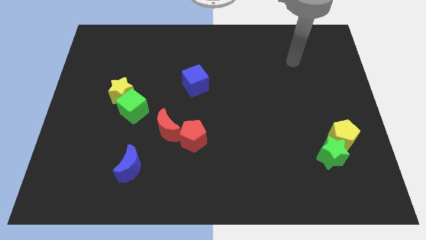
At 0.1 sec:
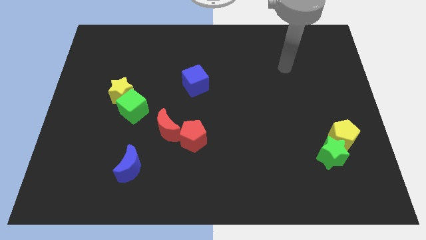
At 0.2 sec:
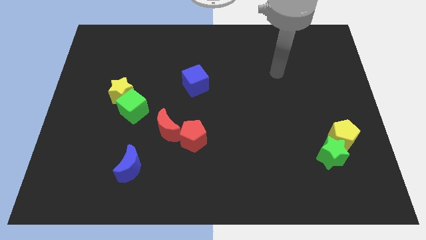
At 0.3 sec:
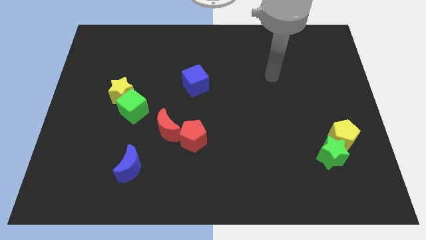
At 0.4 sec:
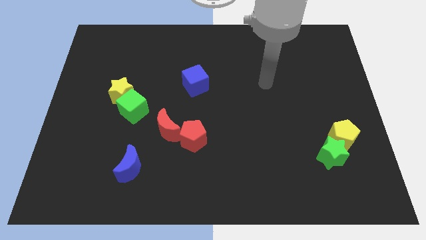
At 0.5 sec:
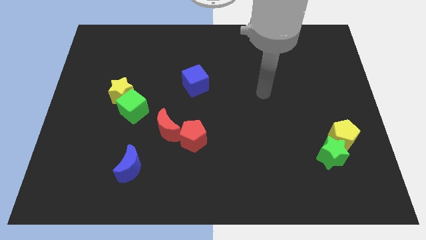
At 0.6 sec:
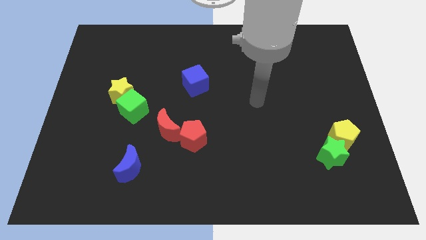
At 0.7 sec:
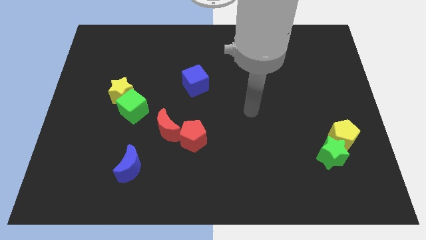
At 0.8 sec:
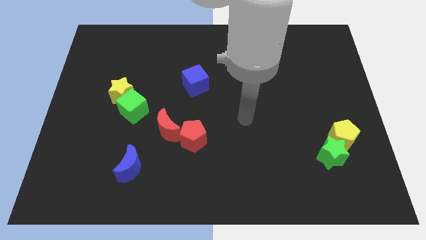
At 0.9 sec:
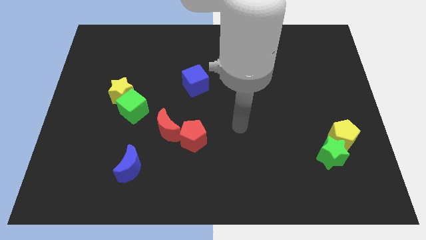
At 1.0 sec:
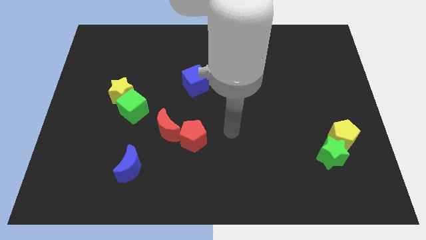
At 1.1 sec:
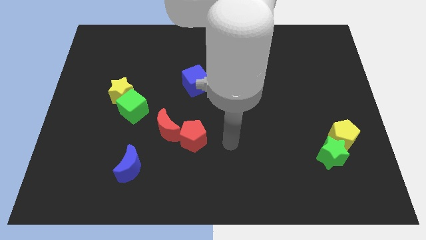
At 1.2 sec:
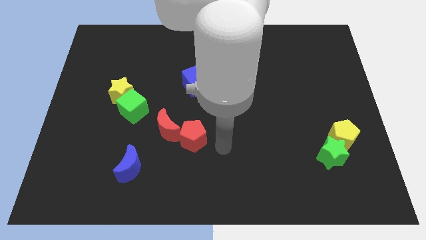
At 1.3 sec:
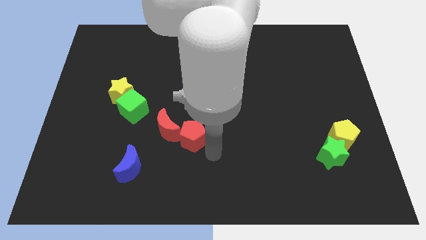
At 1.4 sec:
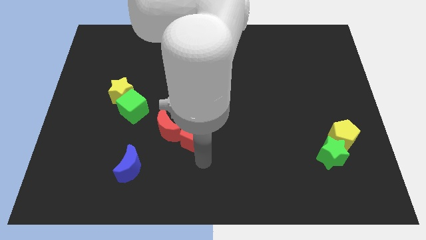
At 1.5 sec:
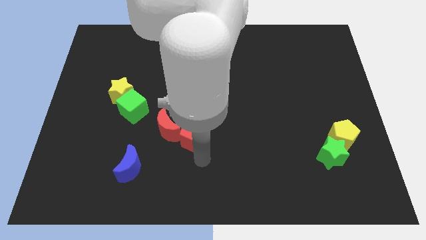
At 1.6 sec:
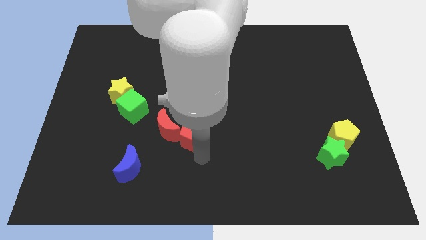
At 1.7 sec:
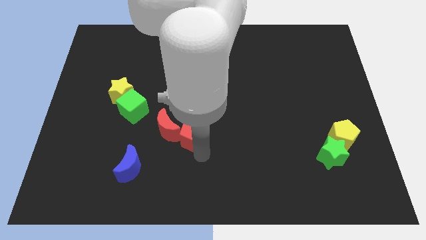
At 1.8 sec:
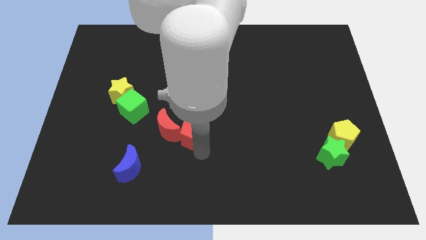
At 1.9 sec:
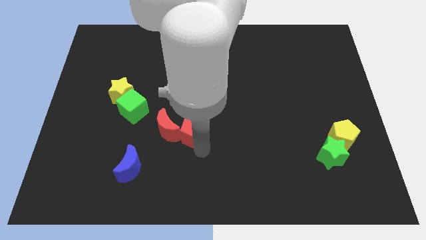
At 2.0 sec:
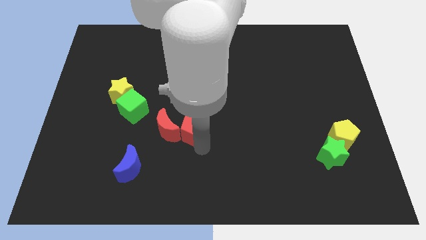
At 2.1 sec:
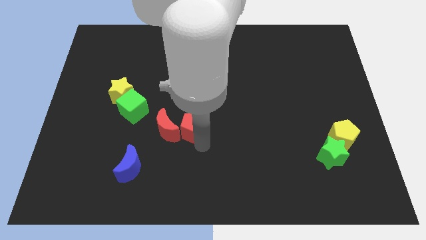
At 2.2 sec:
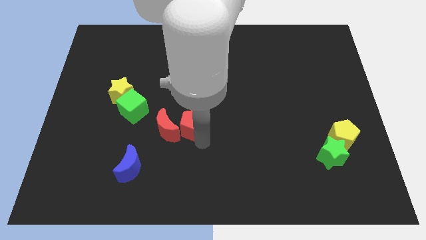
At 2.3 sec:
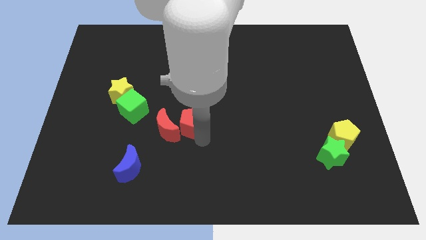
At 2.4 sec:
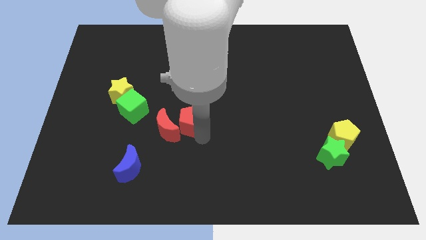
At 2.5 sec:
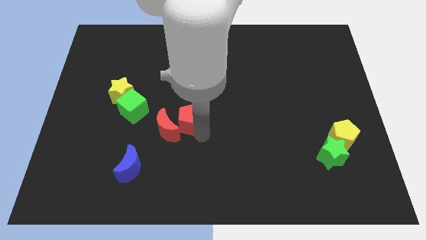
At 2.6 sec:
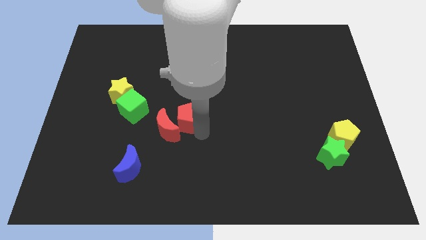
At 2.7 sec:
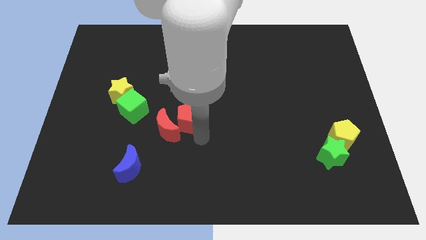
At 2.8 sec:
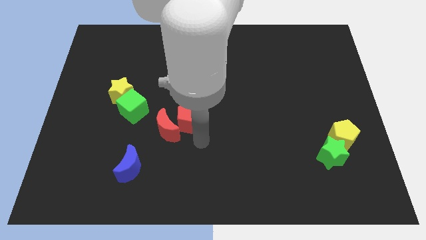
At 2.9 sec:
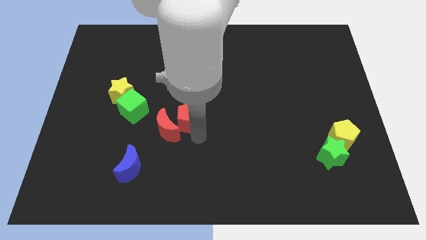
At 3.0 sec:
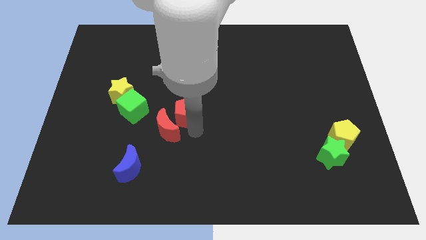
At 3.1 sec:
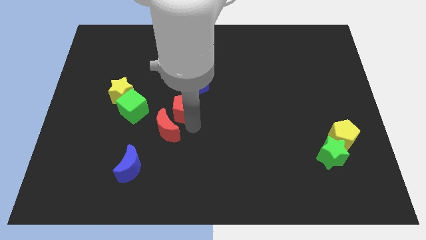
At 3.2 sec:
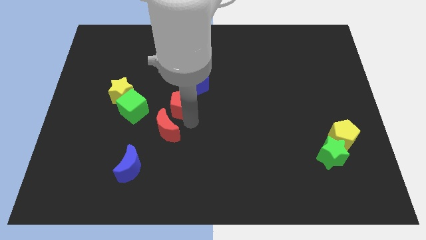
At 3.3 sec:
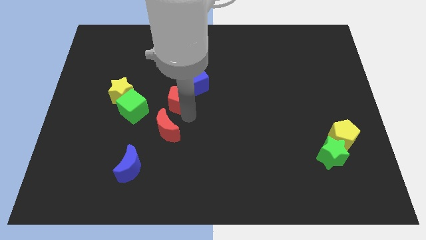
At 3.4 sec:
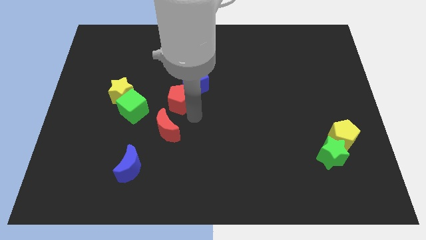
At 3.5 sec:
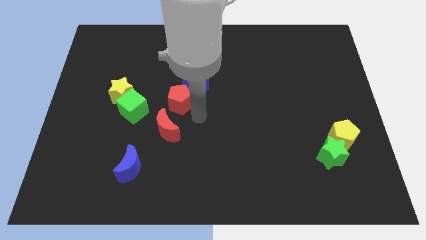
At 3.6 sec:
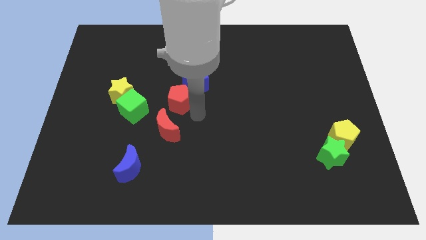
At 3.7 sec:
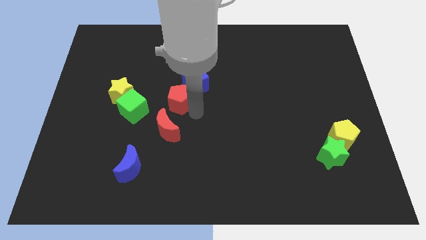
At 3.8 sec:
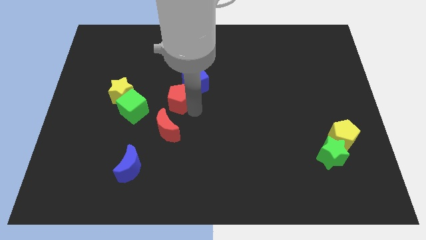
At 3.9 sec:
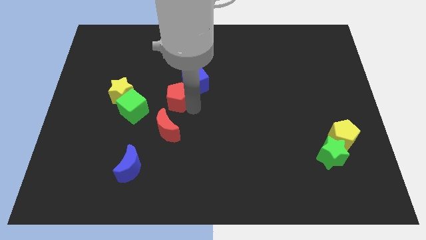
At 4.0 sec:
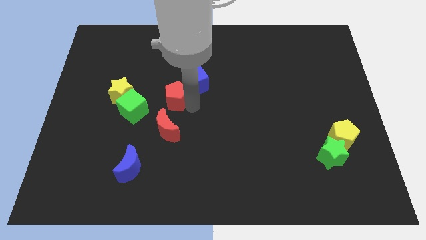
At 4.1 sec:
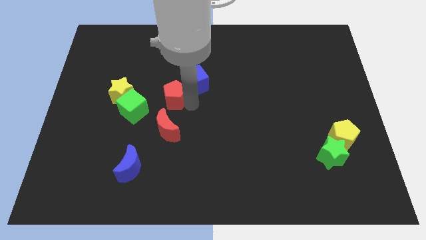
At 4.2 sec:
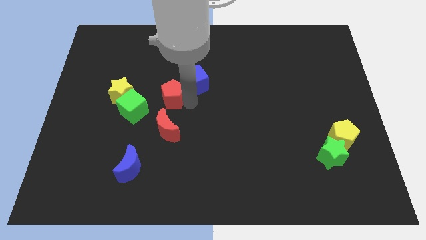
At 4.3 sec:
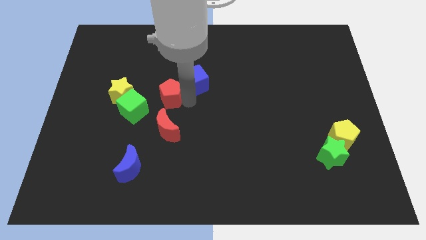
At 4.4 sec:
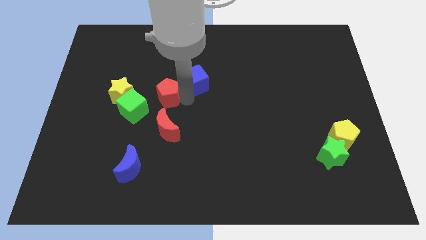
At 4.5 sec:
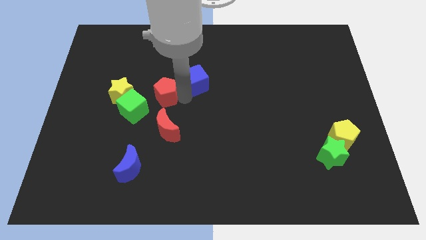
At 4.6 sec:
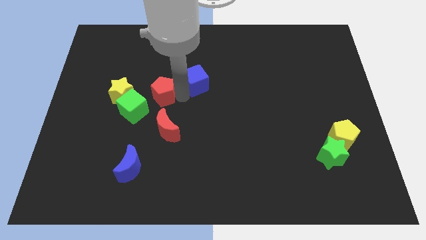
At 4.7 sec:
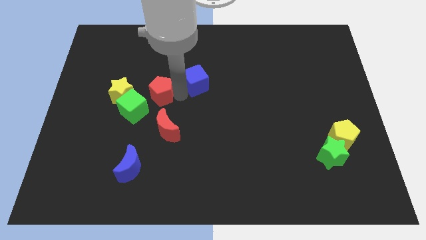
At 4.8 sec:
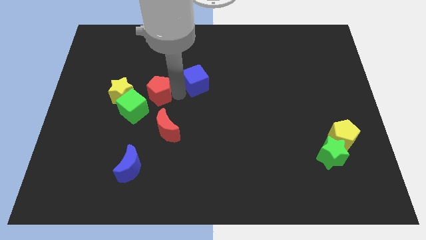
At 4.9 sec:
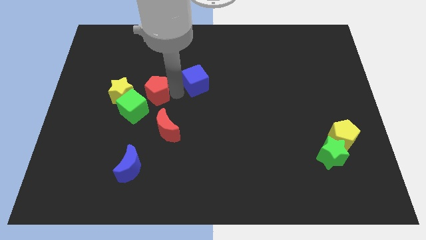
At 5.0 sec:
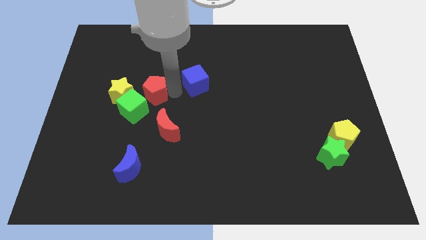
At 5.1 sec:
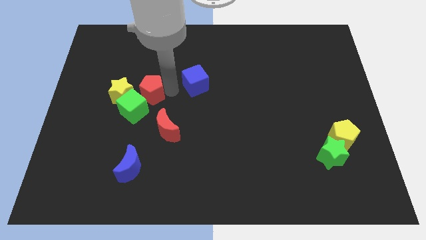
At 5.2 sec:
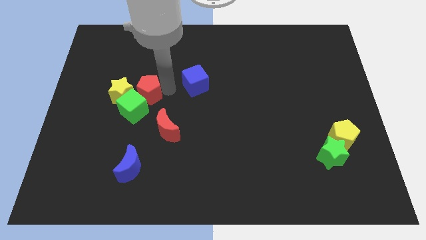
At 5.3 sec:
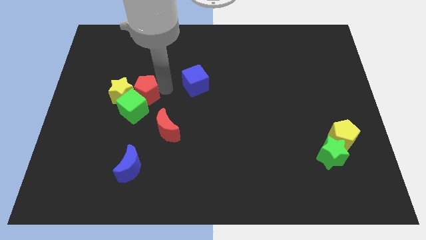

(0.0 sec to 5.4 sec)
move the red pentagon towards the yellow star

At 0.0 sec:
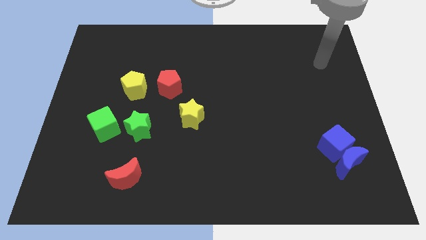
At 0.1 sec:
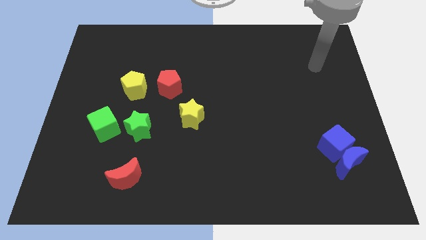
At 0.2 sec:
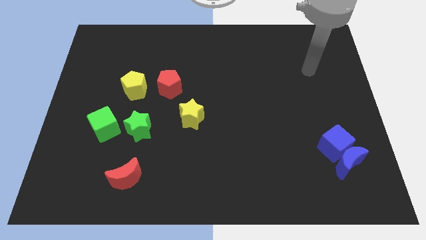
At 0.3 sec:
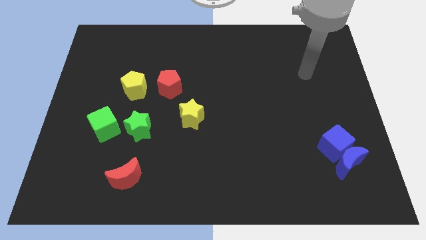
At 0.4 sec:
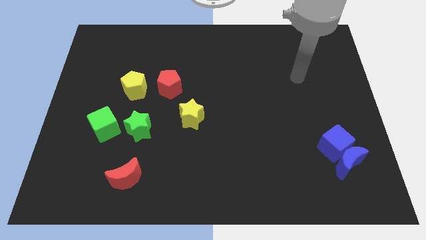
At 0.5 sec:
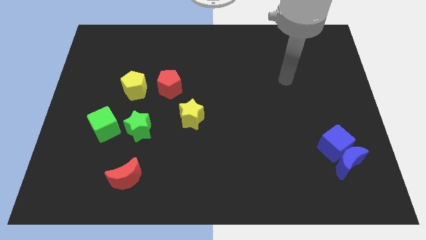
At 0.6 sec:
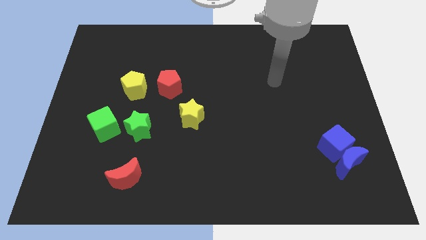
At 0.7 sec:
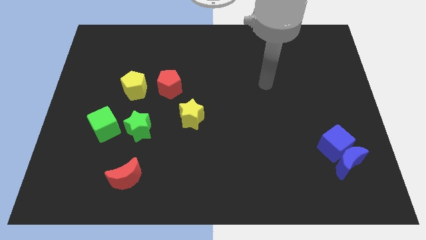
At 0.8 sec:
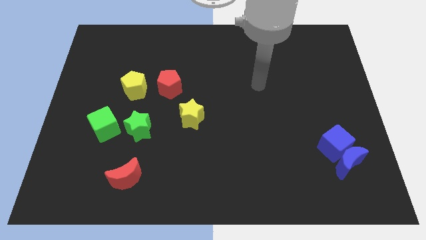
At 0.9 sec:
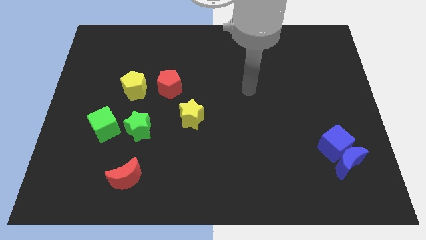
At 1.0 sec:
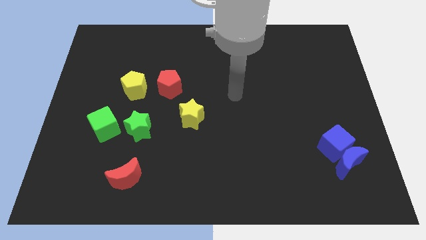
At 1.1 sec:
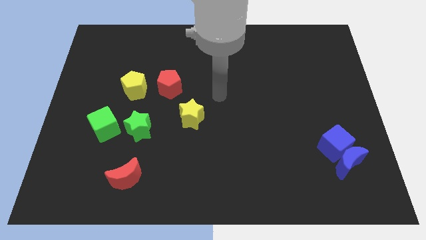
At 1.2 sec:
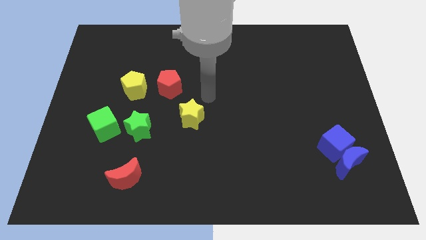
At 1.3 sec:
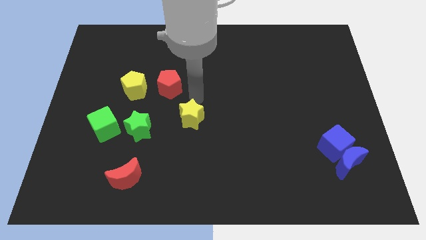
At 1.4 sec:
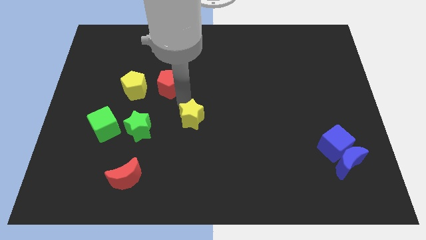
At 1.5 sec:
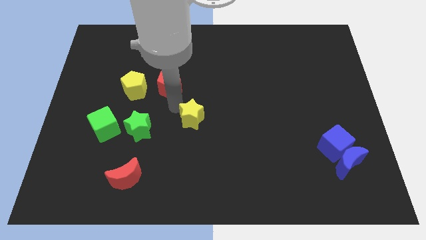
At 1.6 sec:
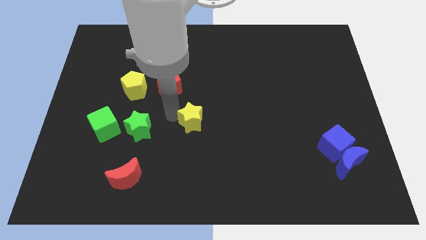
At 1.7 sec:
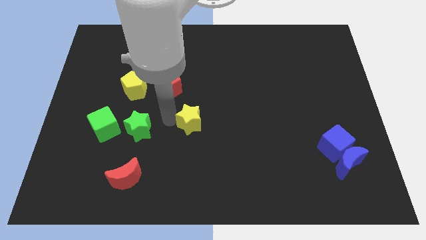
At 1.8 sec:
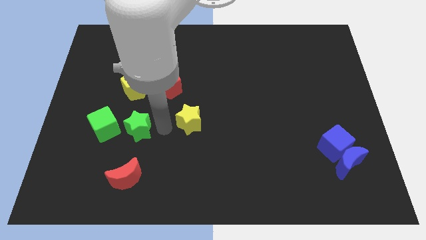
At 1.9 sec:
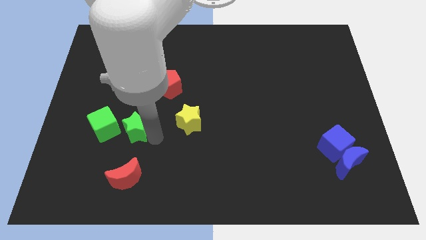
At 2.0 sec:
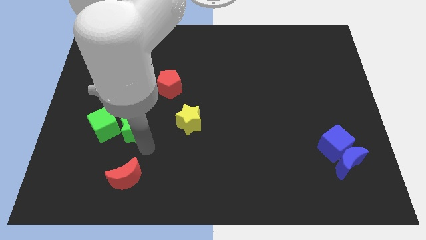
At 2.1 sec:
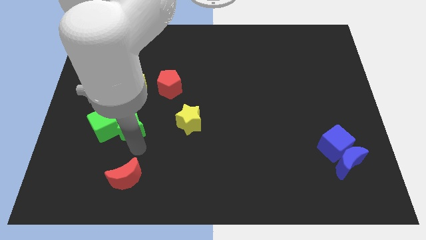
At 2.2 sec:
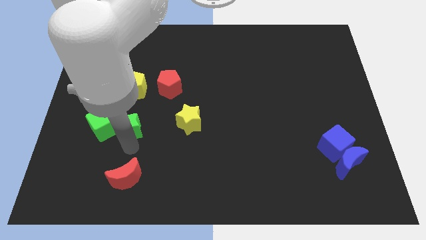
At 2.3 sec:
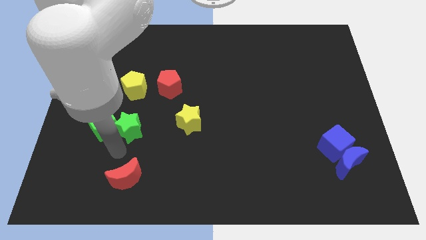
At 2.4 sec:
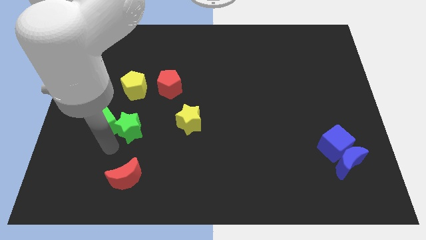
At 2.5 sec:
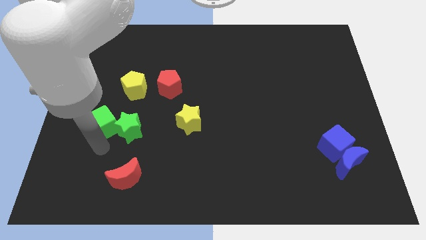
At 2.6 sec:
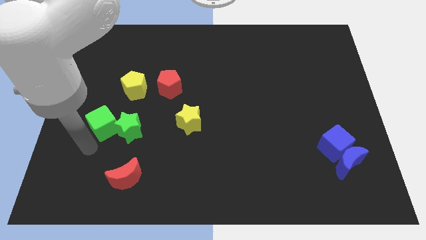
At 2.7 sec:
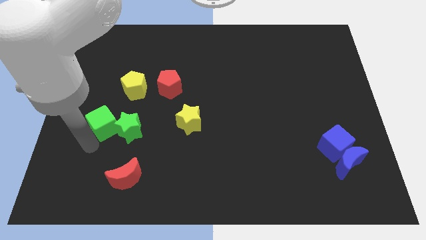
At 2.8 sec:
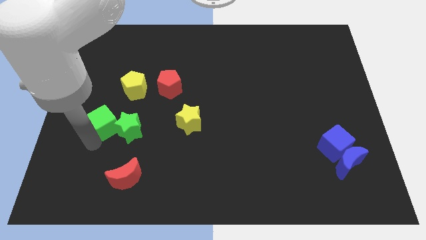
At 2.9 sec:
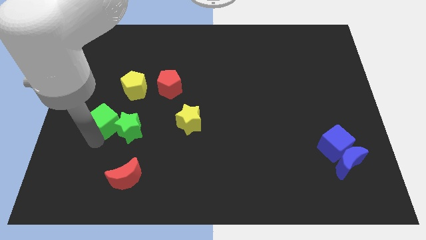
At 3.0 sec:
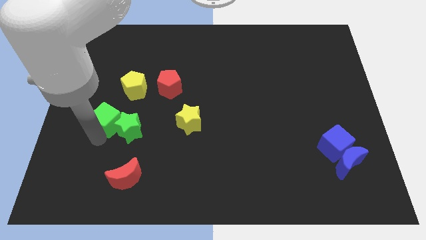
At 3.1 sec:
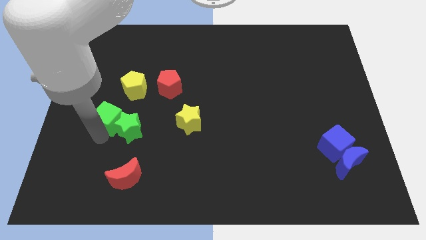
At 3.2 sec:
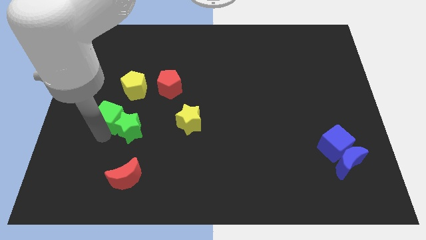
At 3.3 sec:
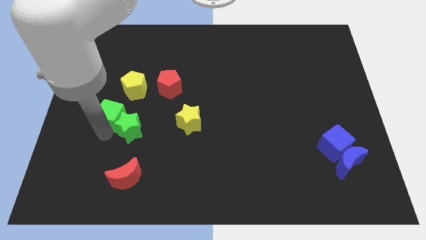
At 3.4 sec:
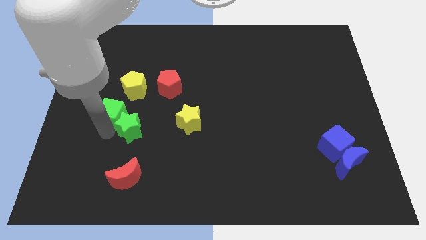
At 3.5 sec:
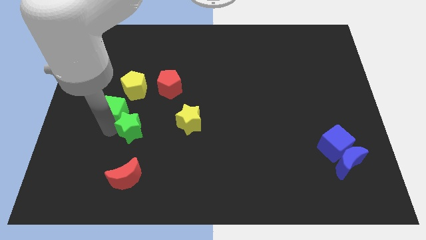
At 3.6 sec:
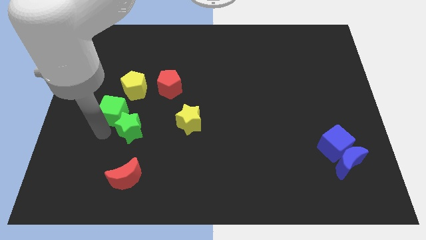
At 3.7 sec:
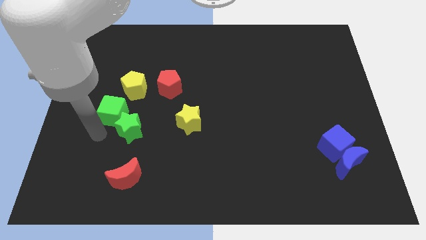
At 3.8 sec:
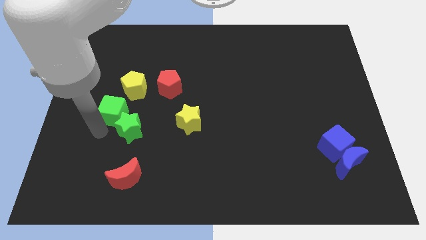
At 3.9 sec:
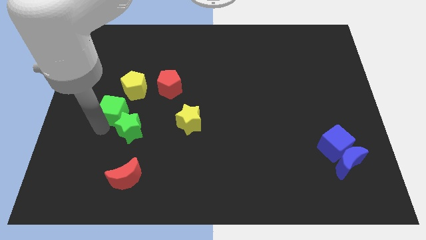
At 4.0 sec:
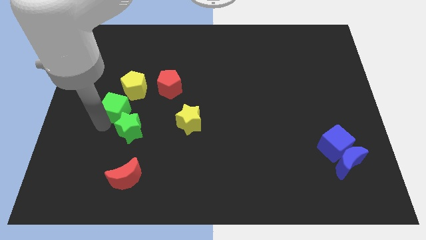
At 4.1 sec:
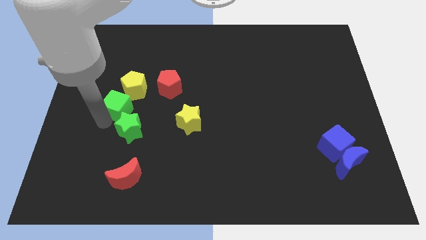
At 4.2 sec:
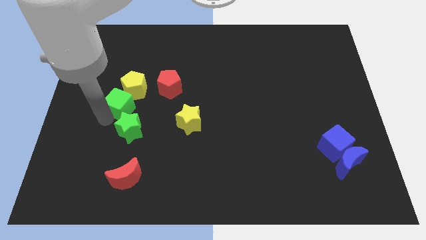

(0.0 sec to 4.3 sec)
push the green cube to the yellow pentagon
